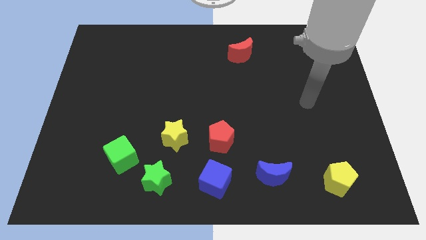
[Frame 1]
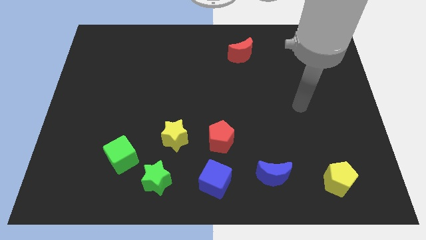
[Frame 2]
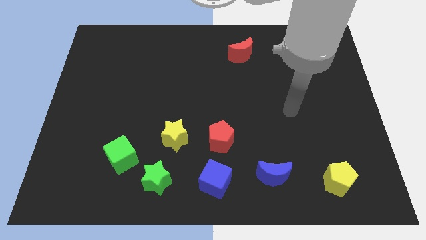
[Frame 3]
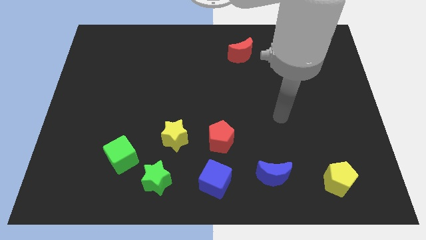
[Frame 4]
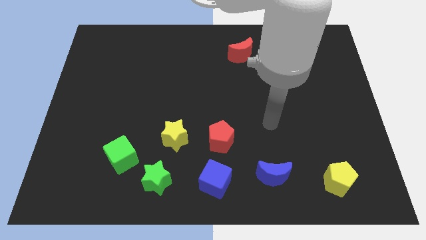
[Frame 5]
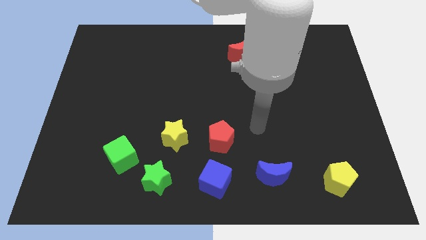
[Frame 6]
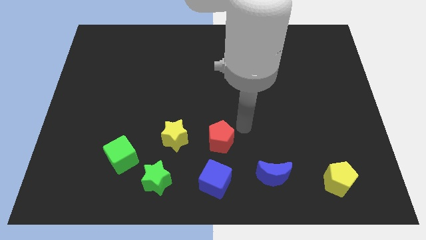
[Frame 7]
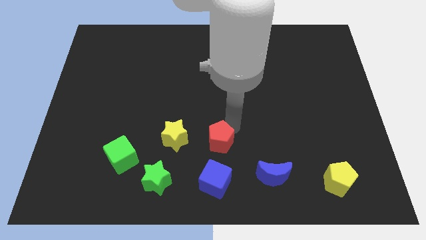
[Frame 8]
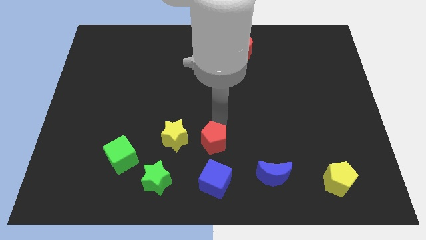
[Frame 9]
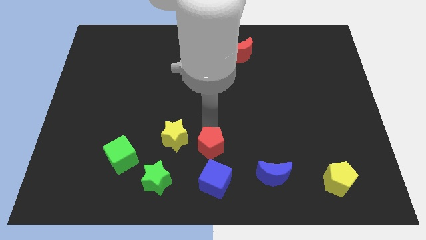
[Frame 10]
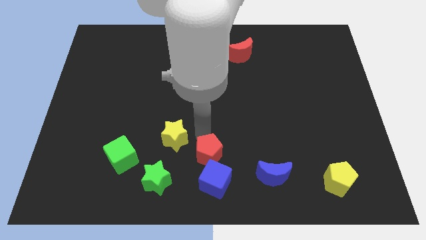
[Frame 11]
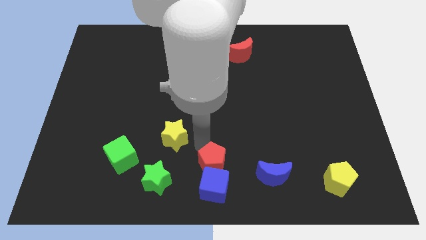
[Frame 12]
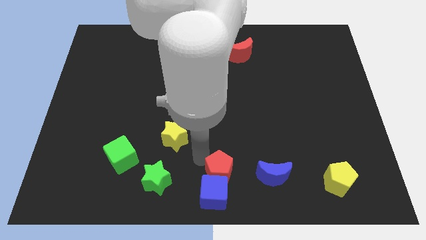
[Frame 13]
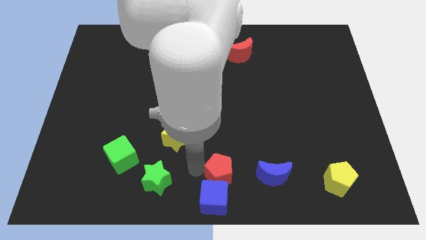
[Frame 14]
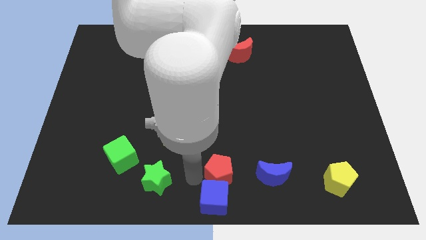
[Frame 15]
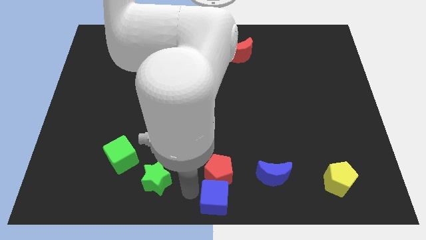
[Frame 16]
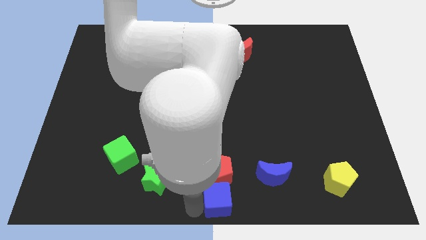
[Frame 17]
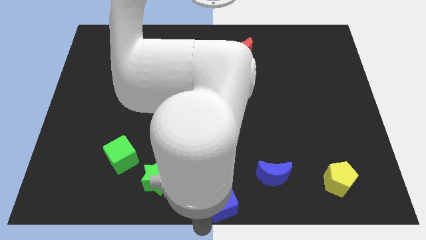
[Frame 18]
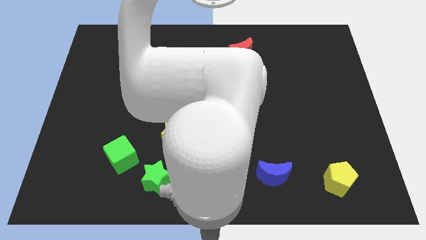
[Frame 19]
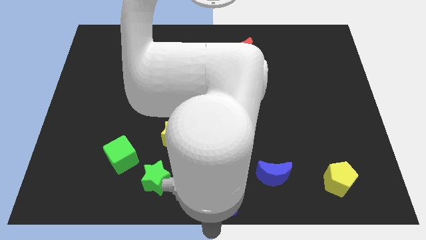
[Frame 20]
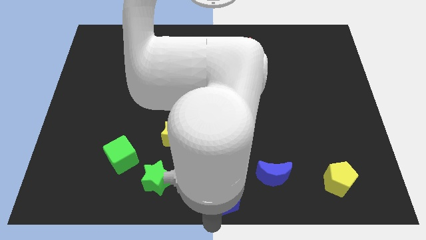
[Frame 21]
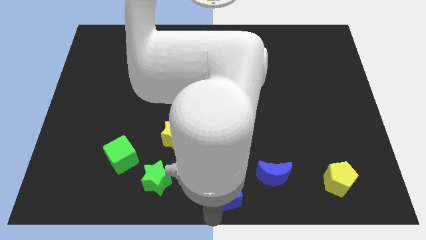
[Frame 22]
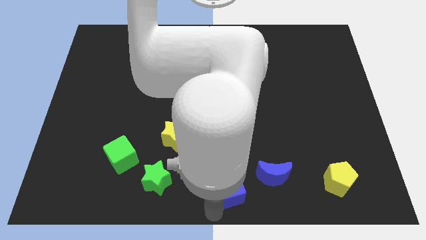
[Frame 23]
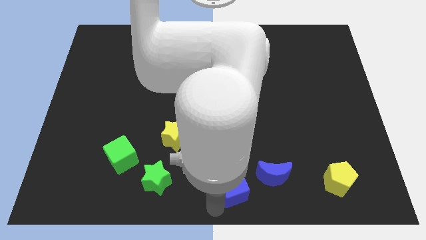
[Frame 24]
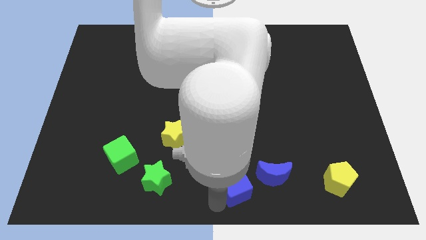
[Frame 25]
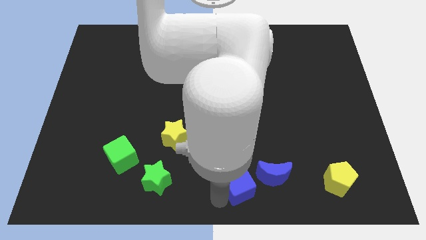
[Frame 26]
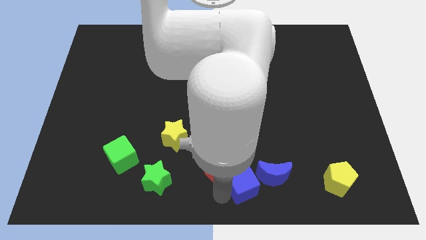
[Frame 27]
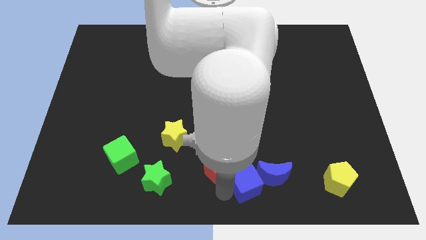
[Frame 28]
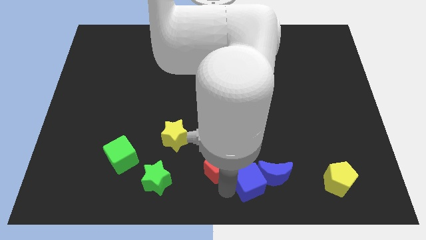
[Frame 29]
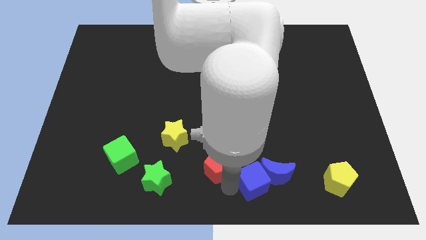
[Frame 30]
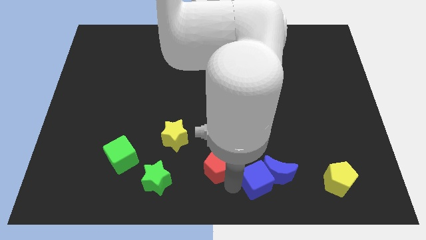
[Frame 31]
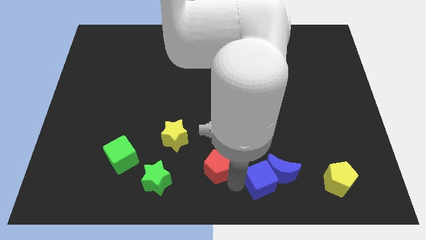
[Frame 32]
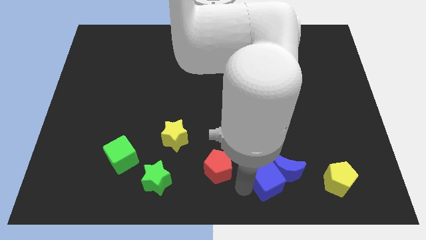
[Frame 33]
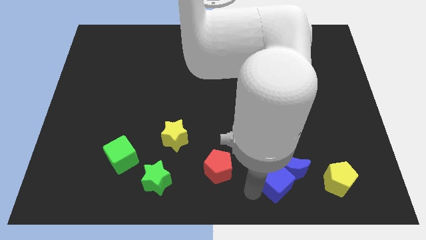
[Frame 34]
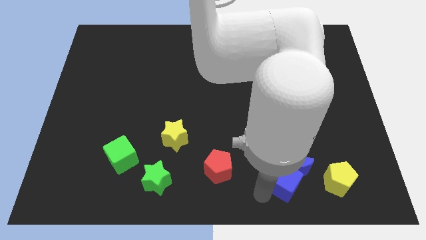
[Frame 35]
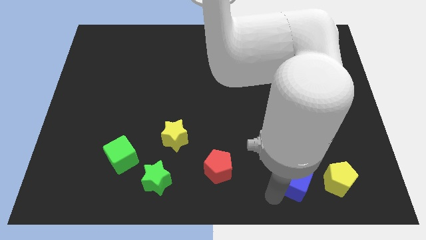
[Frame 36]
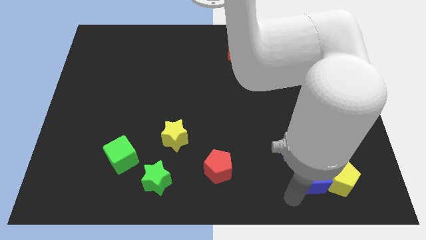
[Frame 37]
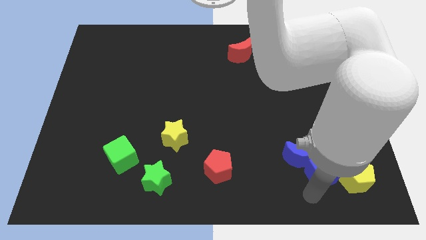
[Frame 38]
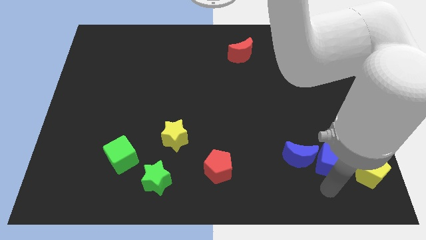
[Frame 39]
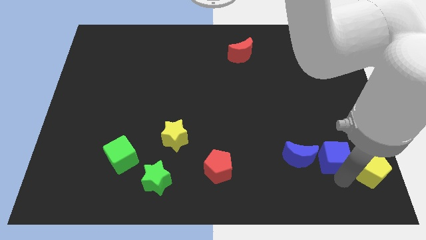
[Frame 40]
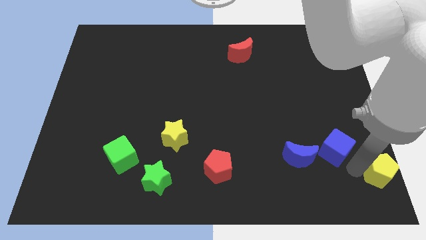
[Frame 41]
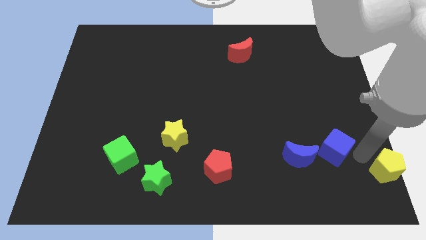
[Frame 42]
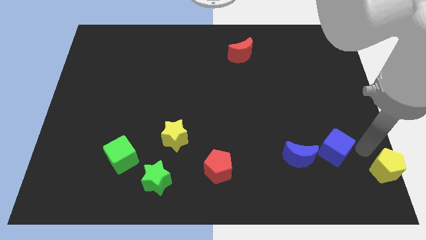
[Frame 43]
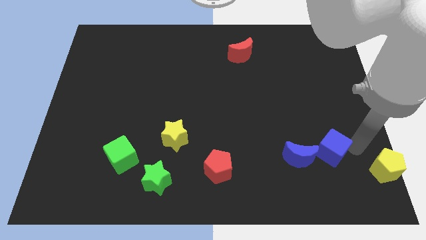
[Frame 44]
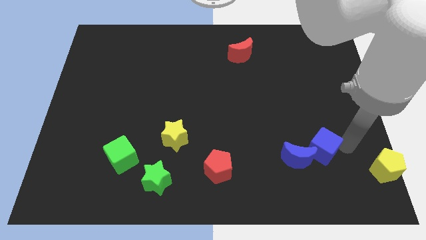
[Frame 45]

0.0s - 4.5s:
slide the blue cube a little bit upwards and right diagonally

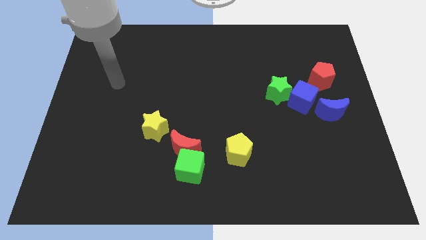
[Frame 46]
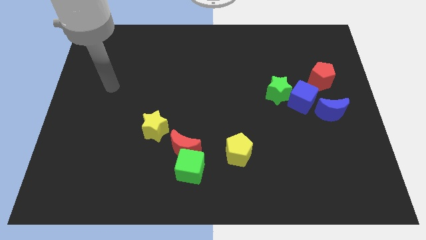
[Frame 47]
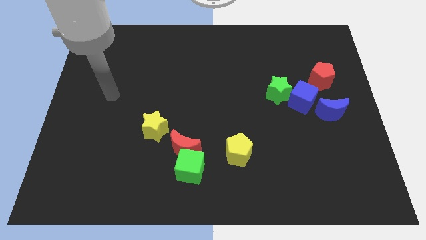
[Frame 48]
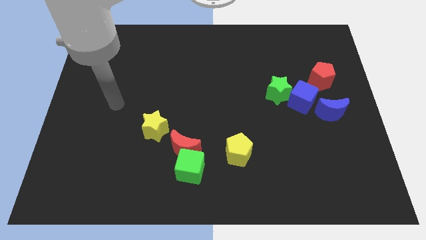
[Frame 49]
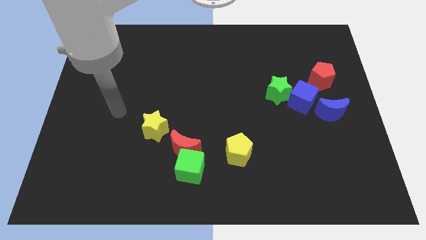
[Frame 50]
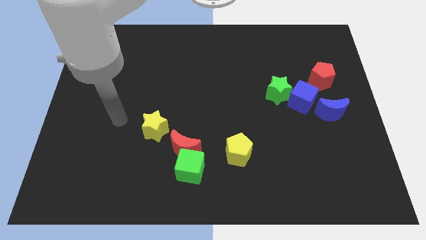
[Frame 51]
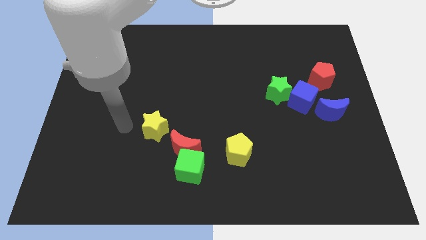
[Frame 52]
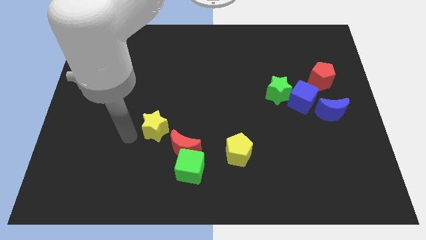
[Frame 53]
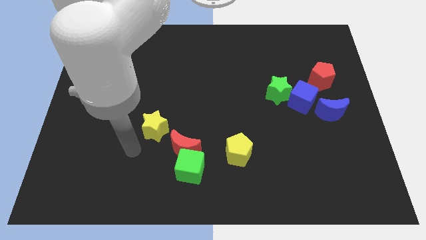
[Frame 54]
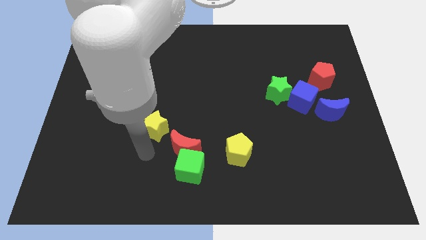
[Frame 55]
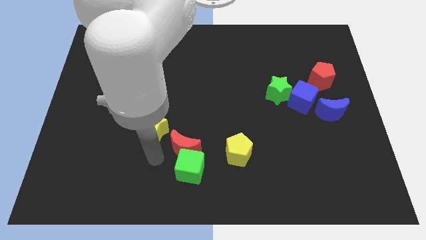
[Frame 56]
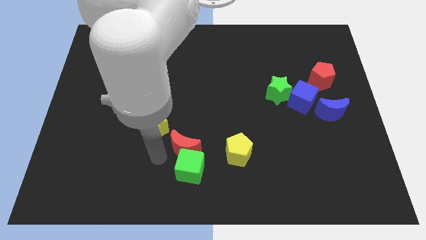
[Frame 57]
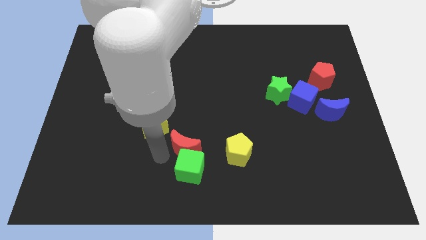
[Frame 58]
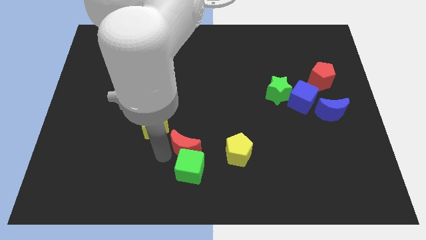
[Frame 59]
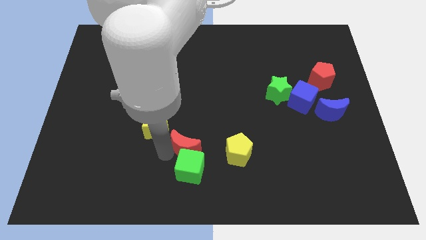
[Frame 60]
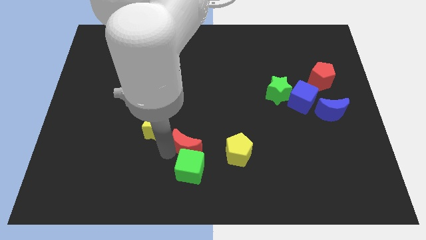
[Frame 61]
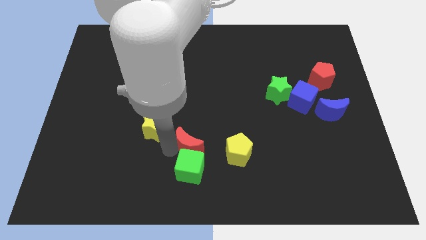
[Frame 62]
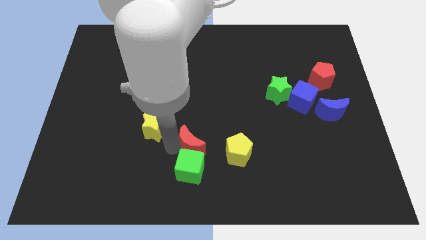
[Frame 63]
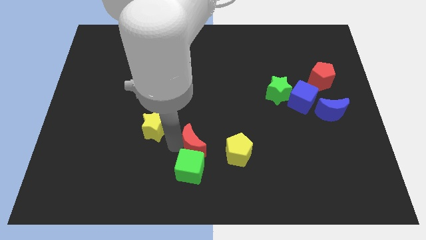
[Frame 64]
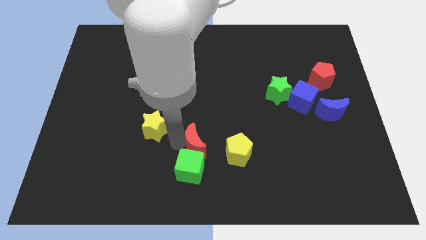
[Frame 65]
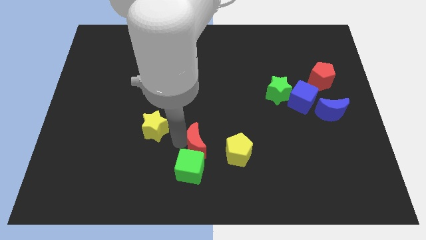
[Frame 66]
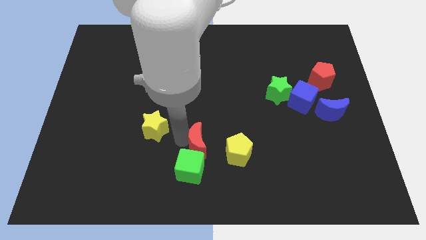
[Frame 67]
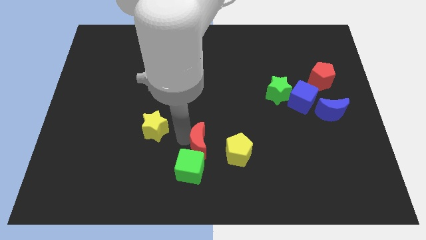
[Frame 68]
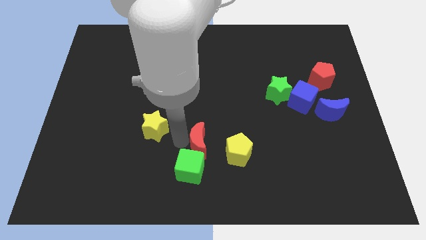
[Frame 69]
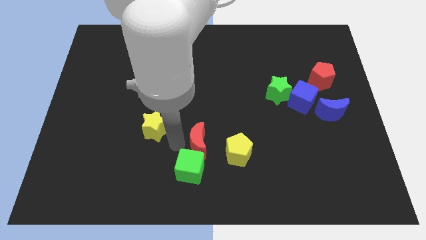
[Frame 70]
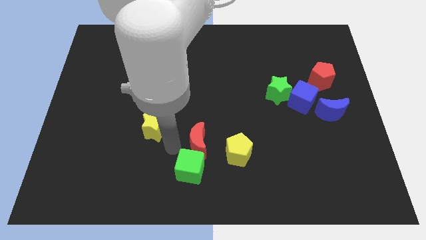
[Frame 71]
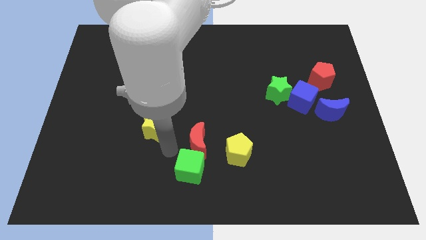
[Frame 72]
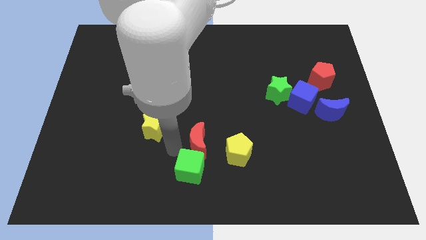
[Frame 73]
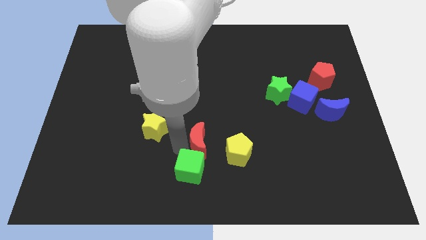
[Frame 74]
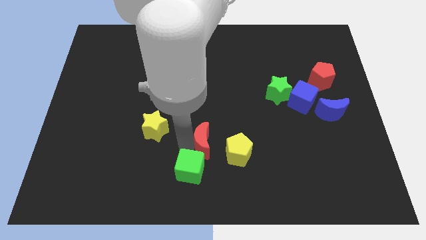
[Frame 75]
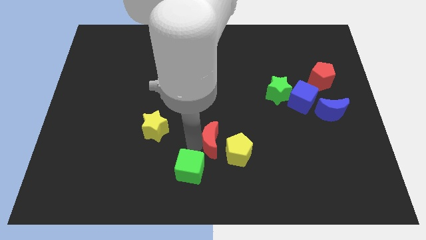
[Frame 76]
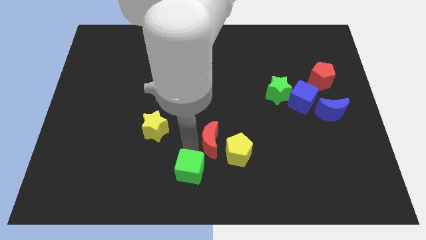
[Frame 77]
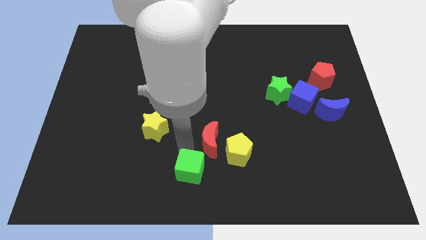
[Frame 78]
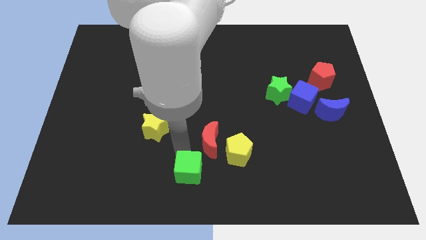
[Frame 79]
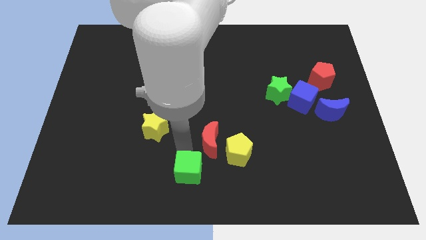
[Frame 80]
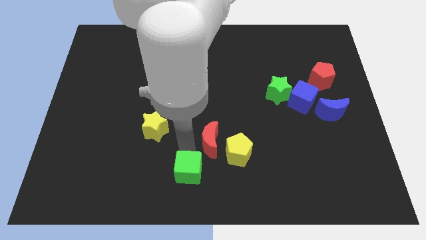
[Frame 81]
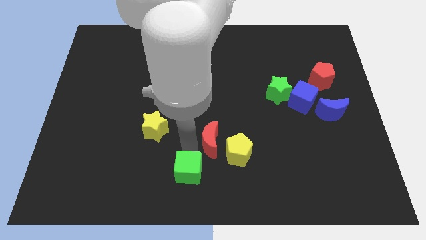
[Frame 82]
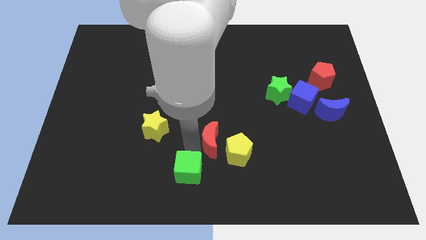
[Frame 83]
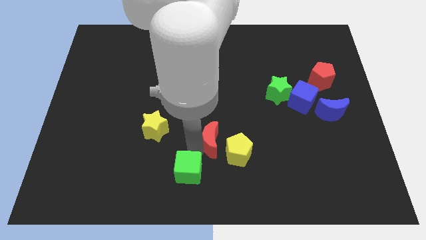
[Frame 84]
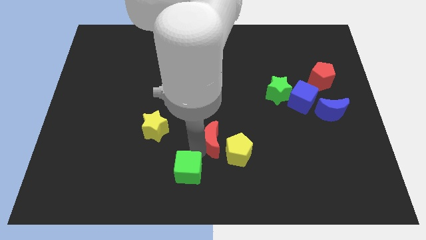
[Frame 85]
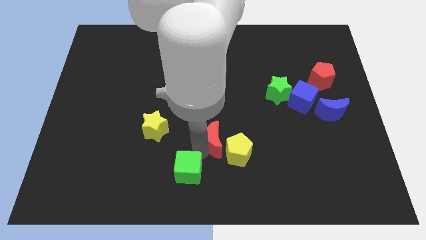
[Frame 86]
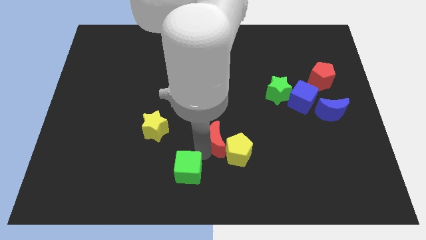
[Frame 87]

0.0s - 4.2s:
slide the red moon to the right a little bit
